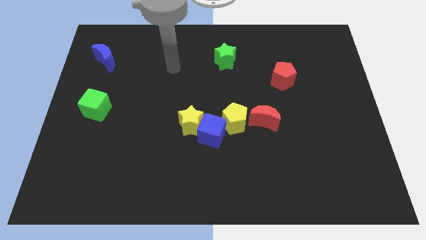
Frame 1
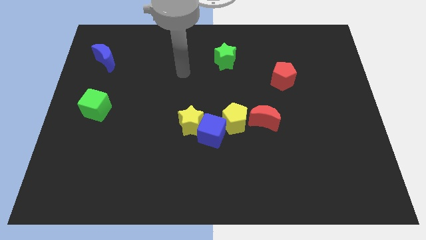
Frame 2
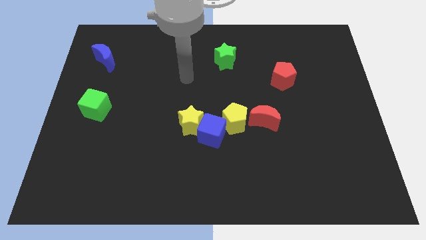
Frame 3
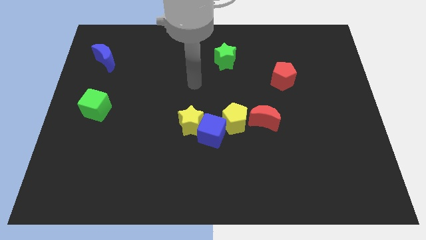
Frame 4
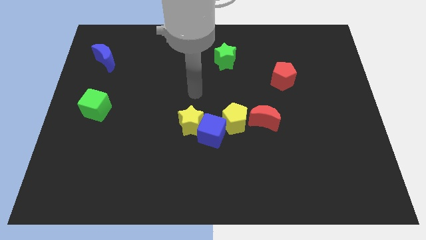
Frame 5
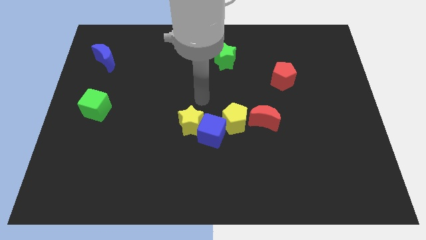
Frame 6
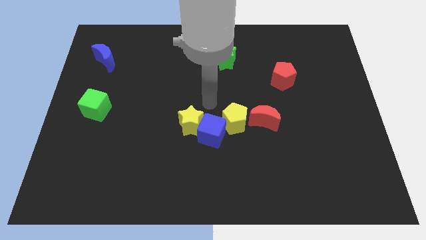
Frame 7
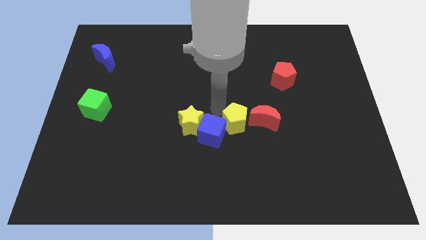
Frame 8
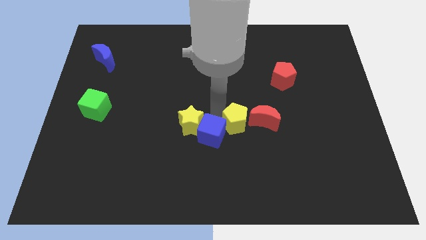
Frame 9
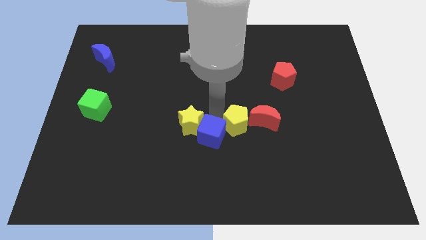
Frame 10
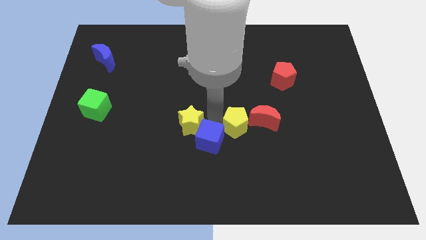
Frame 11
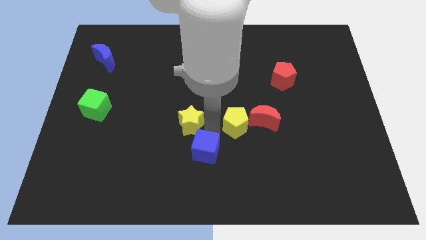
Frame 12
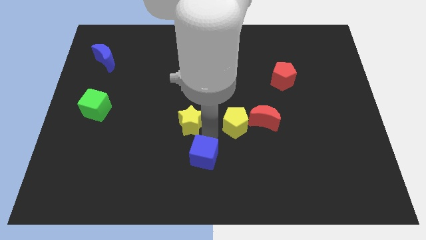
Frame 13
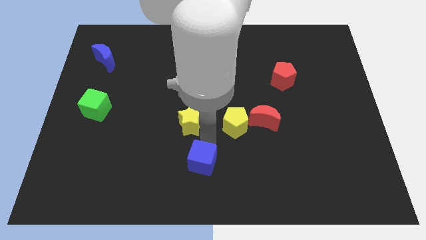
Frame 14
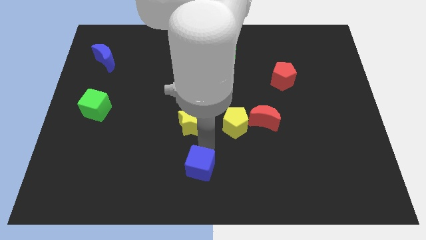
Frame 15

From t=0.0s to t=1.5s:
pull the blue cube apart from the yellow star and yellow pentagon

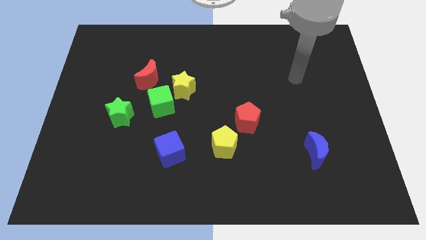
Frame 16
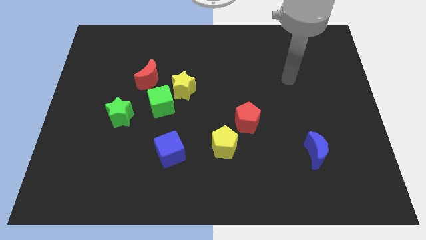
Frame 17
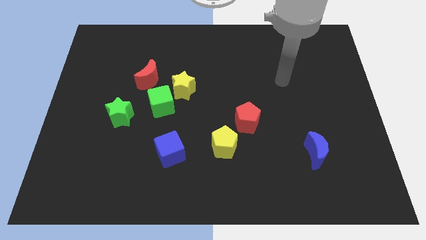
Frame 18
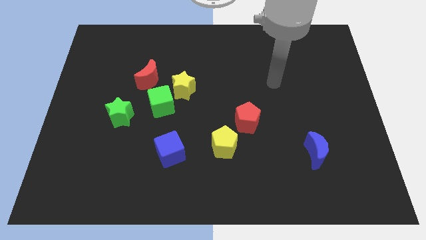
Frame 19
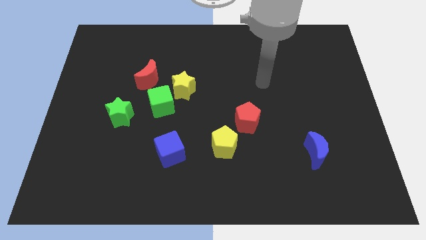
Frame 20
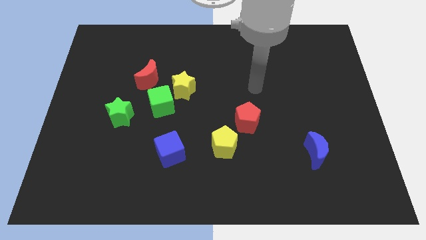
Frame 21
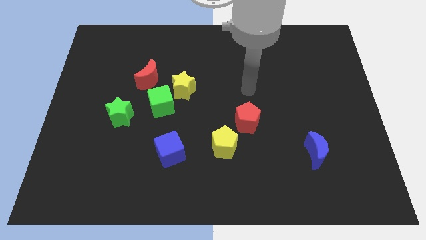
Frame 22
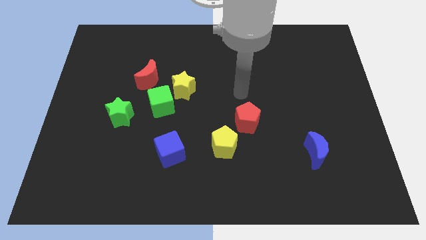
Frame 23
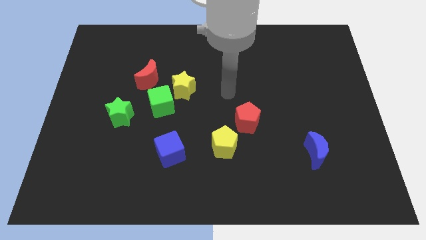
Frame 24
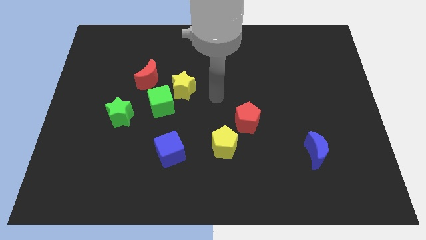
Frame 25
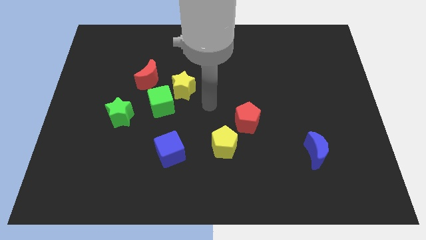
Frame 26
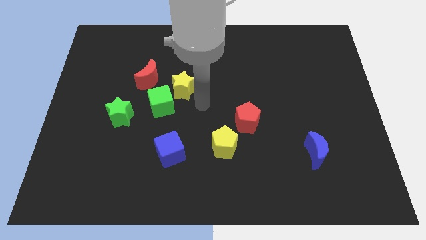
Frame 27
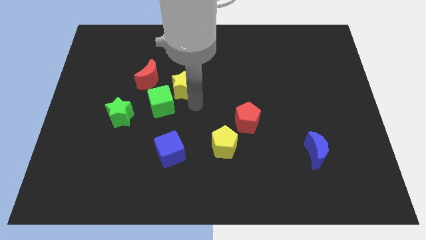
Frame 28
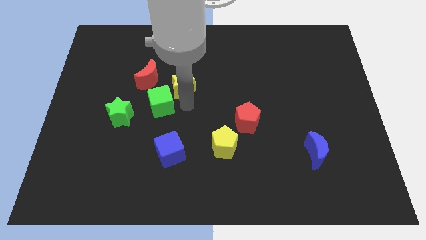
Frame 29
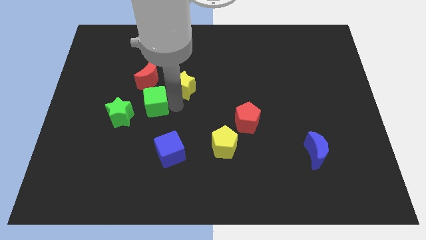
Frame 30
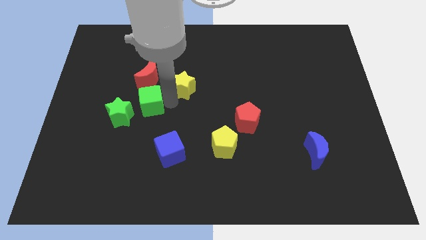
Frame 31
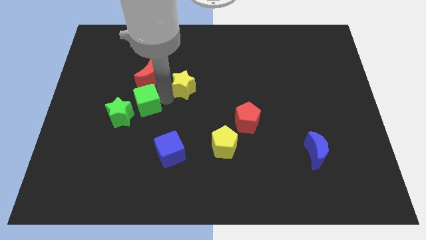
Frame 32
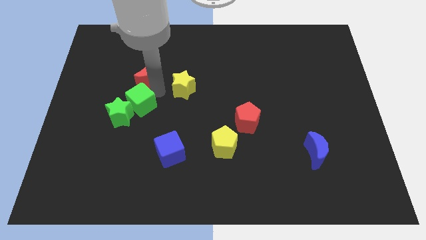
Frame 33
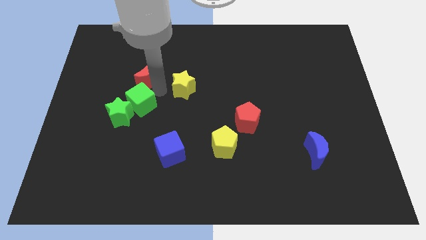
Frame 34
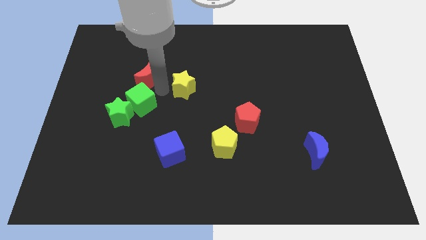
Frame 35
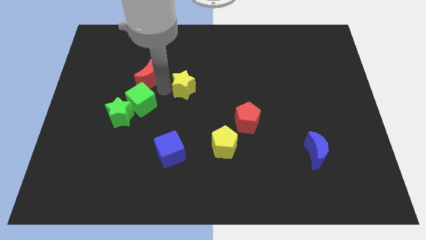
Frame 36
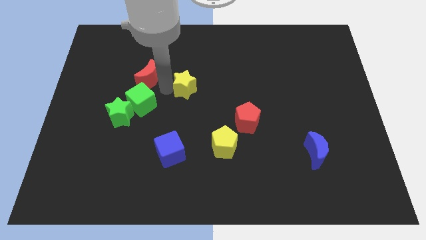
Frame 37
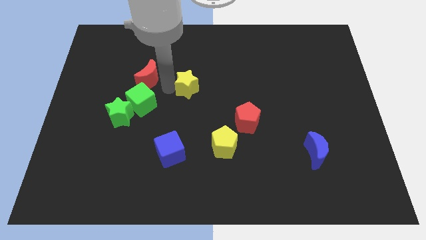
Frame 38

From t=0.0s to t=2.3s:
pull the yellow star apart from the green cube and red moon

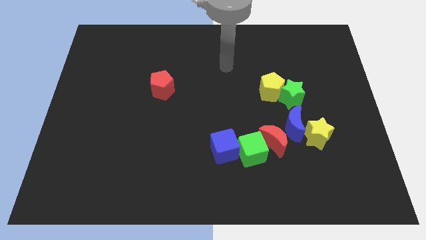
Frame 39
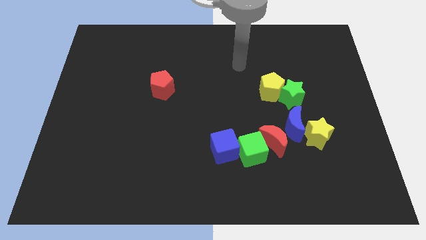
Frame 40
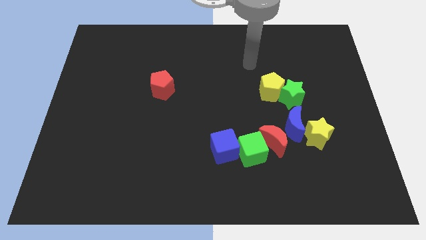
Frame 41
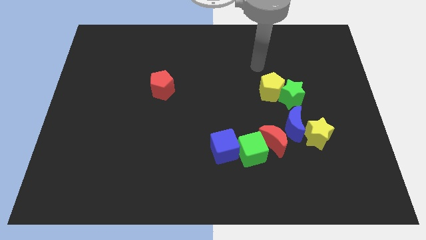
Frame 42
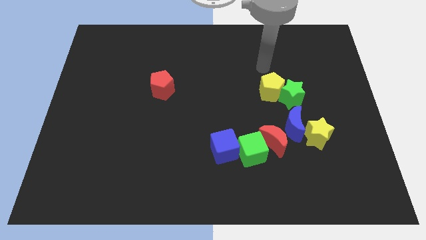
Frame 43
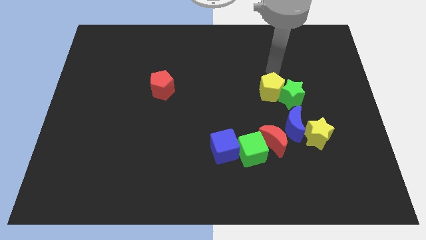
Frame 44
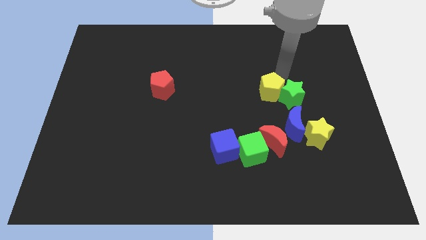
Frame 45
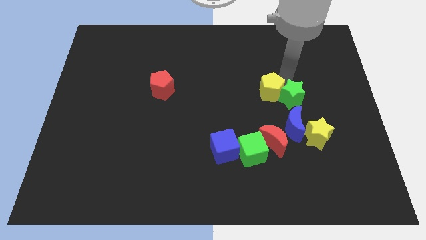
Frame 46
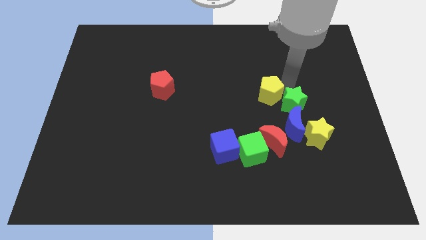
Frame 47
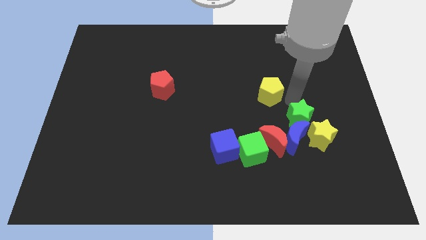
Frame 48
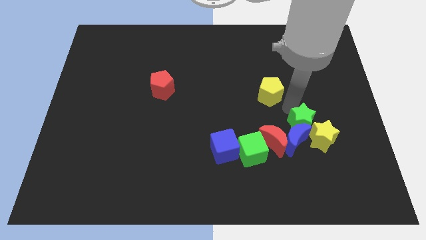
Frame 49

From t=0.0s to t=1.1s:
move the yellow pentagon away from the green star

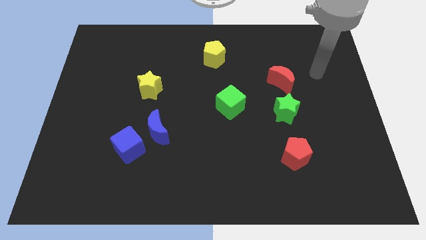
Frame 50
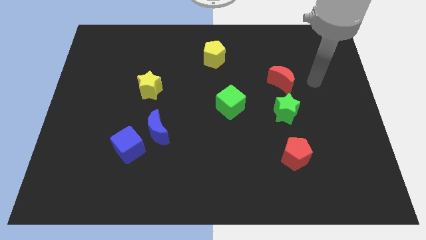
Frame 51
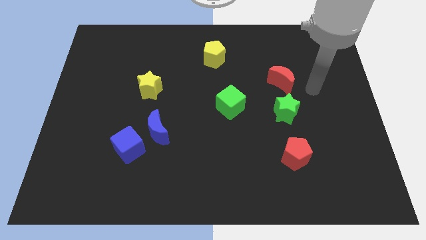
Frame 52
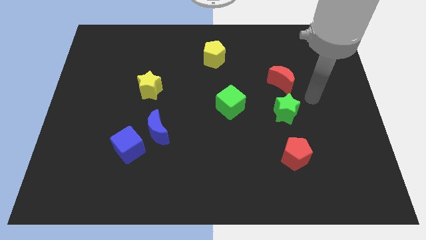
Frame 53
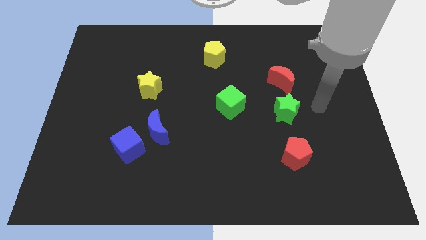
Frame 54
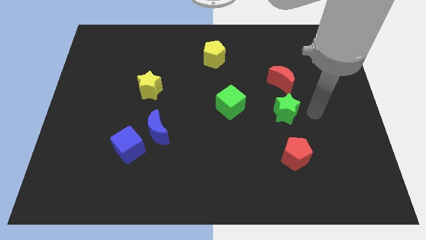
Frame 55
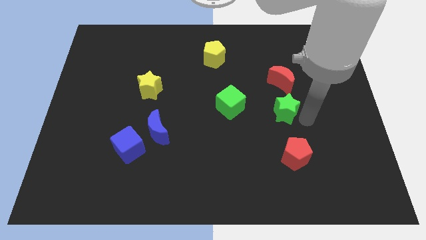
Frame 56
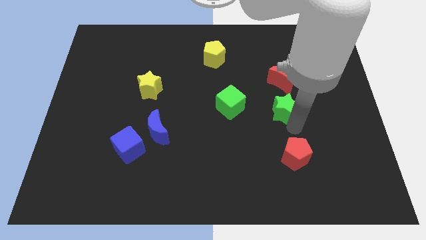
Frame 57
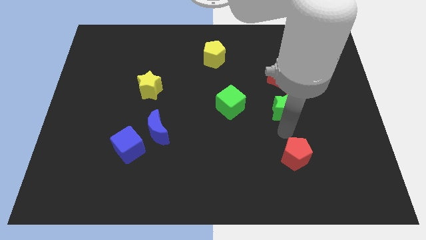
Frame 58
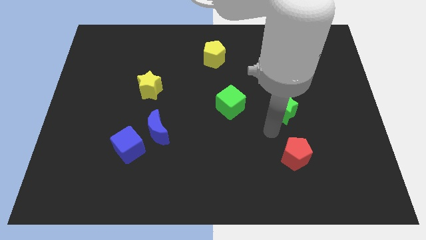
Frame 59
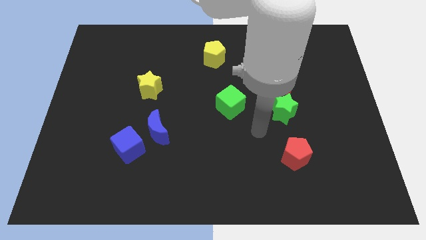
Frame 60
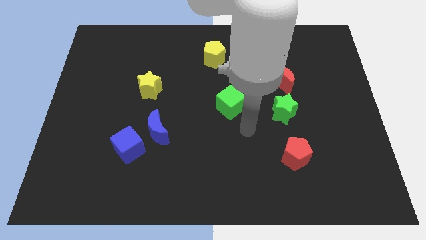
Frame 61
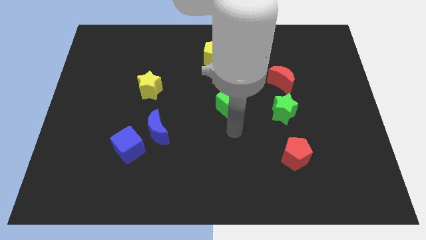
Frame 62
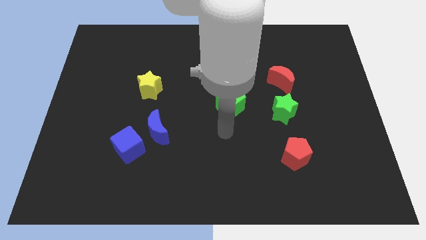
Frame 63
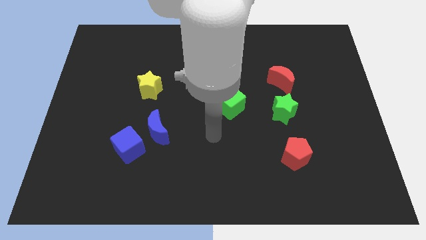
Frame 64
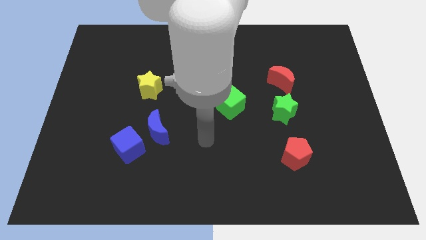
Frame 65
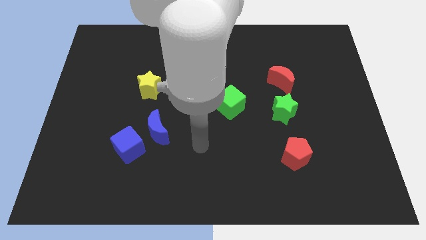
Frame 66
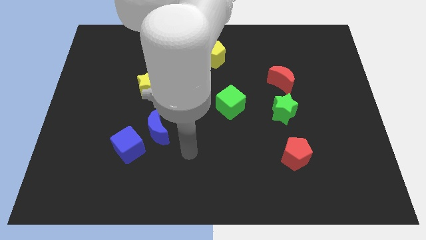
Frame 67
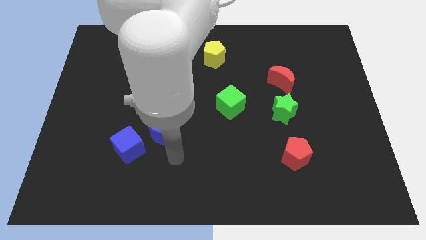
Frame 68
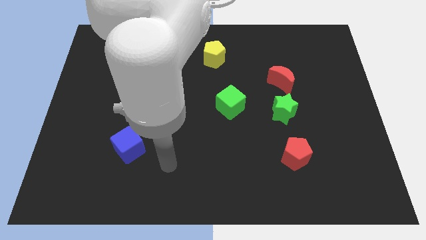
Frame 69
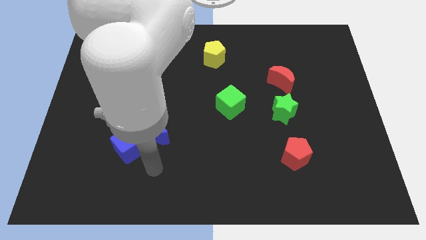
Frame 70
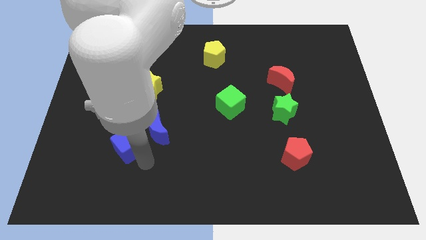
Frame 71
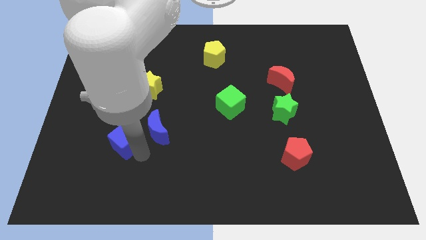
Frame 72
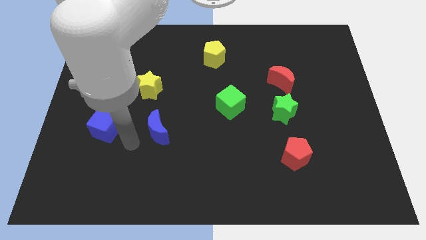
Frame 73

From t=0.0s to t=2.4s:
pull the blue moon apart from the blue cube

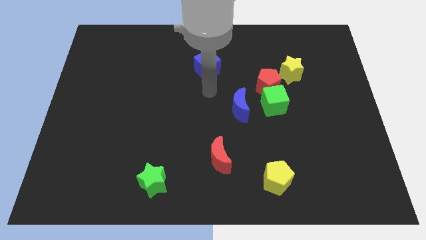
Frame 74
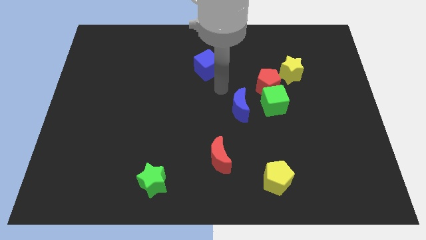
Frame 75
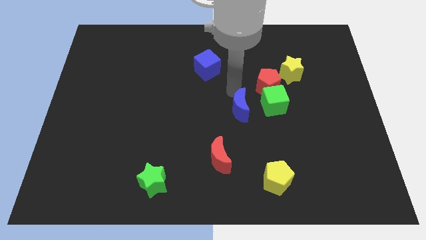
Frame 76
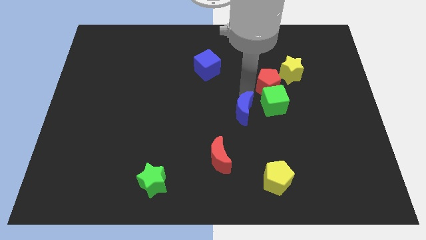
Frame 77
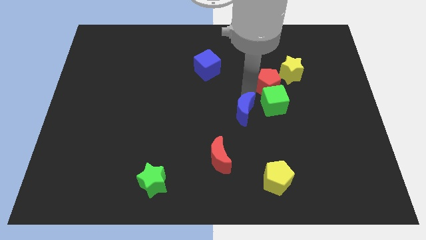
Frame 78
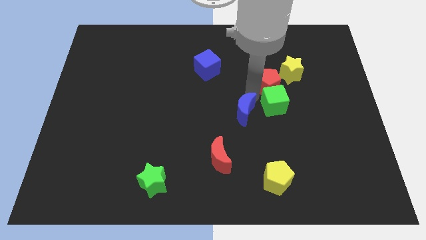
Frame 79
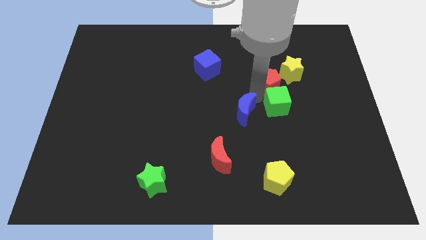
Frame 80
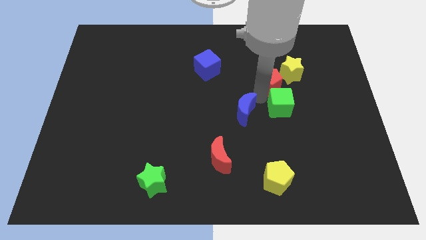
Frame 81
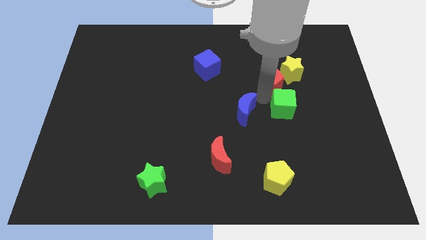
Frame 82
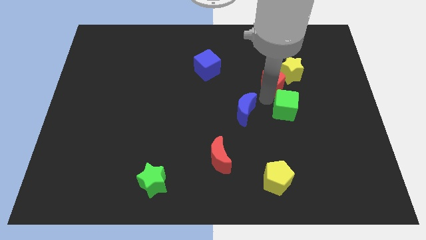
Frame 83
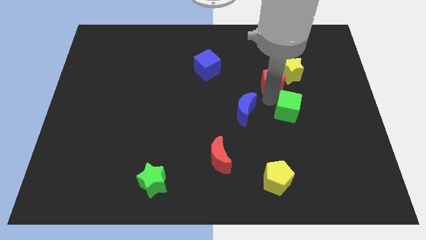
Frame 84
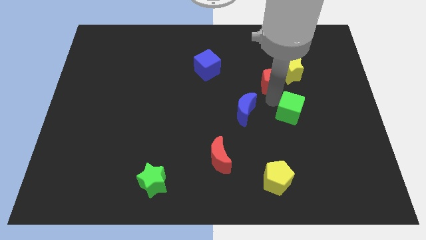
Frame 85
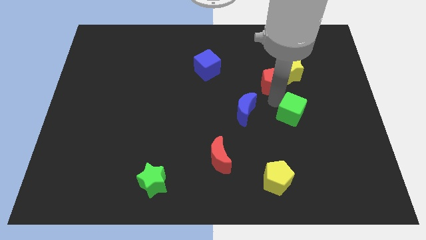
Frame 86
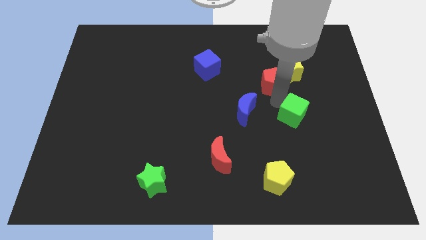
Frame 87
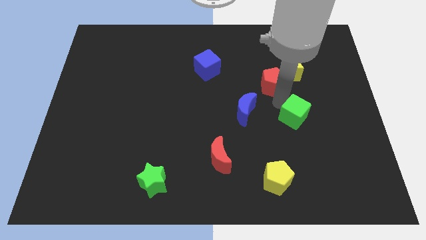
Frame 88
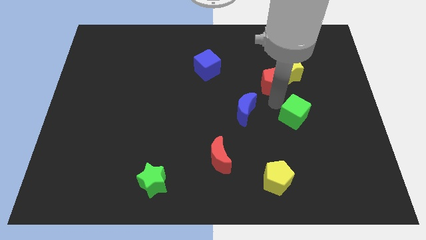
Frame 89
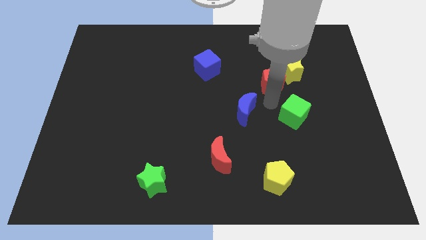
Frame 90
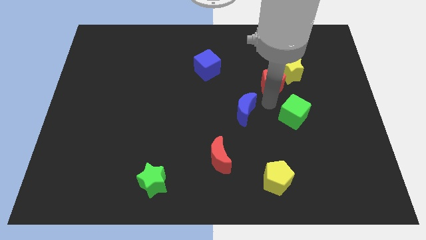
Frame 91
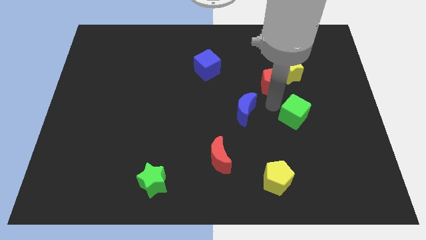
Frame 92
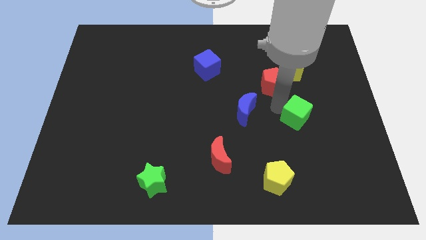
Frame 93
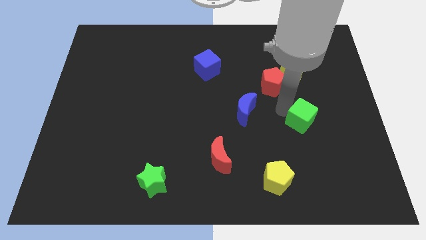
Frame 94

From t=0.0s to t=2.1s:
pull the green cube apart from the red pentagon and blue moon

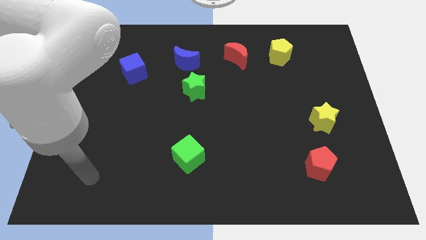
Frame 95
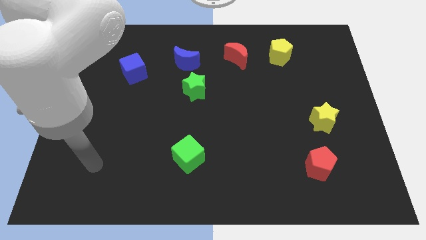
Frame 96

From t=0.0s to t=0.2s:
pull the blue moon apart from the green star
